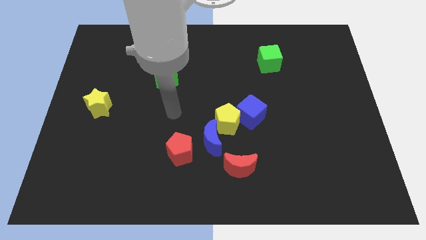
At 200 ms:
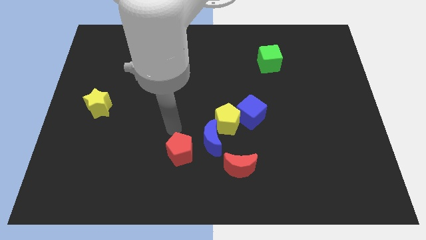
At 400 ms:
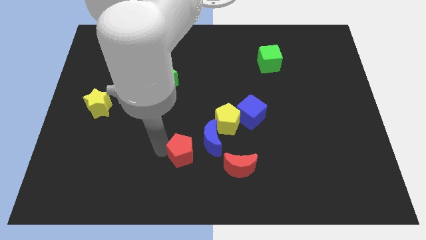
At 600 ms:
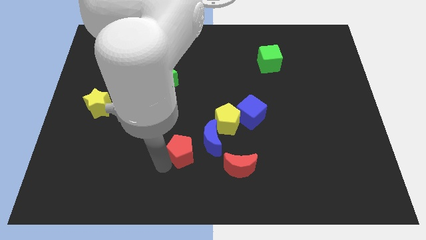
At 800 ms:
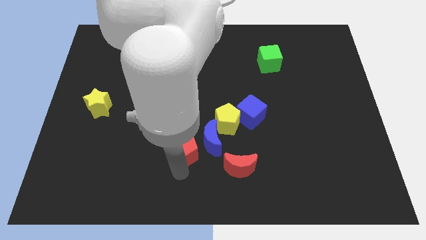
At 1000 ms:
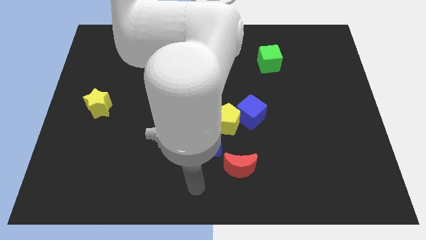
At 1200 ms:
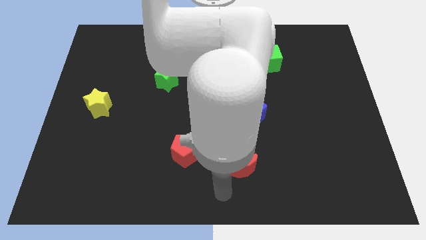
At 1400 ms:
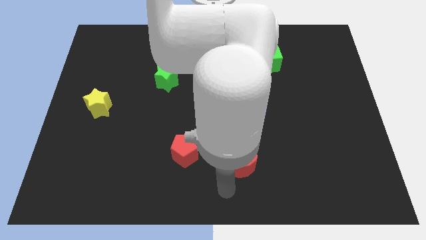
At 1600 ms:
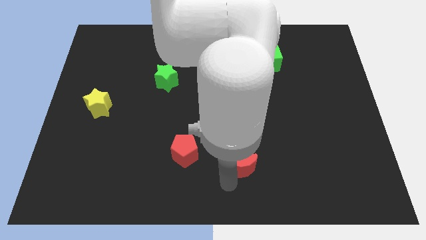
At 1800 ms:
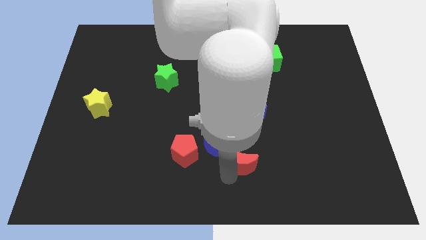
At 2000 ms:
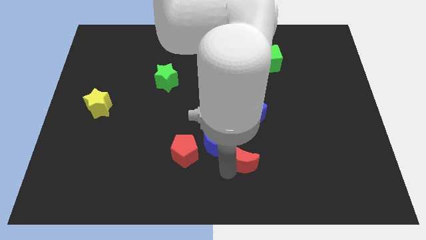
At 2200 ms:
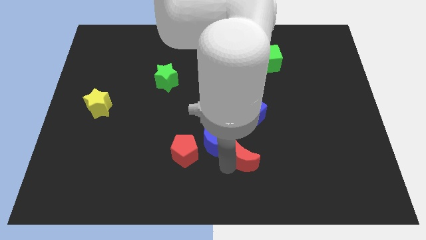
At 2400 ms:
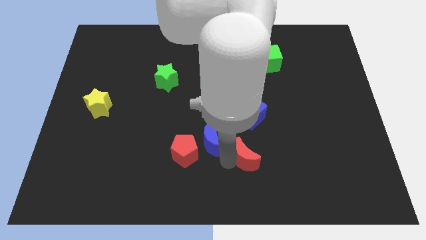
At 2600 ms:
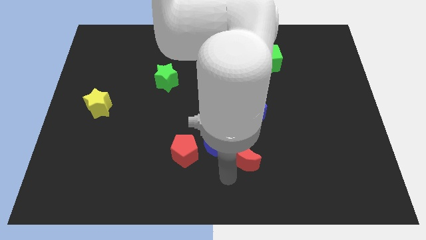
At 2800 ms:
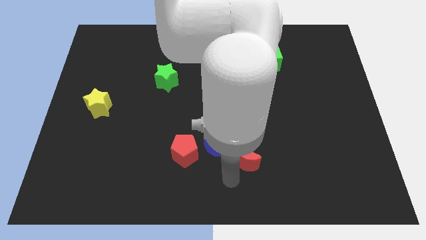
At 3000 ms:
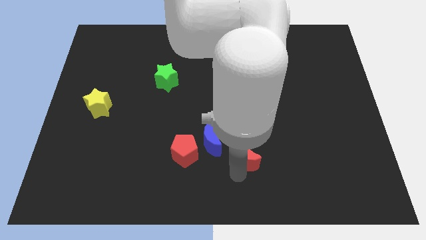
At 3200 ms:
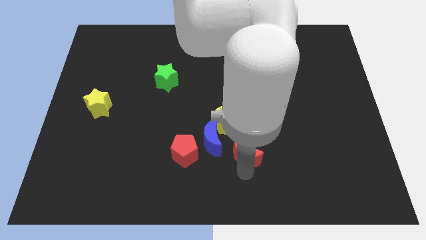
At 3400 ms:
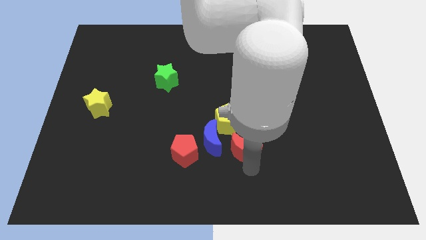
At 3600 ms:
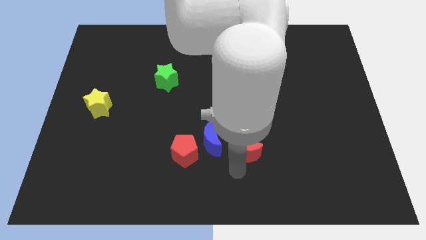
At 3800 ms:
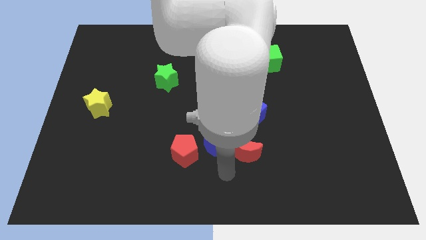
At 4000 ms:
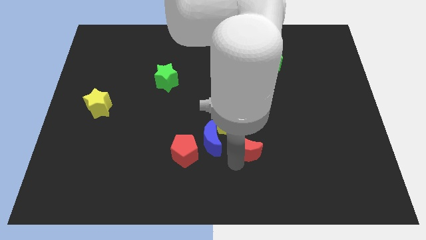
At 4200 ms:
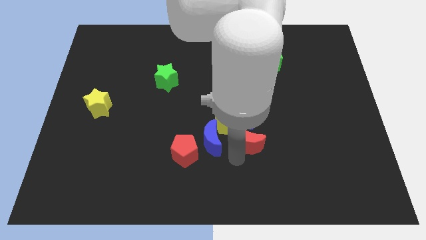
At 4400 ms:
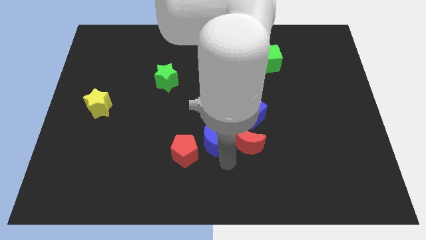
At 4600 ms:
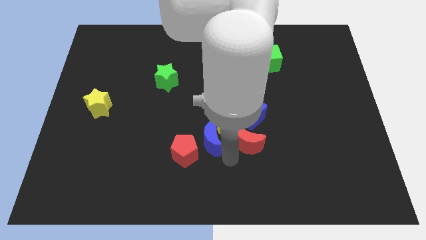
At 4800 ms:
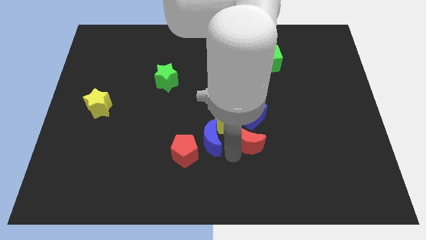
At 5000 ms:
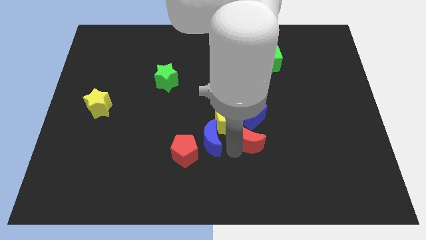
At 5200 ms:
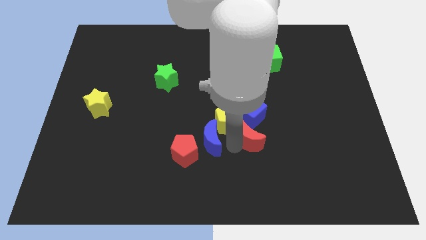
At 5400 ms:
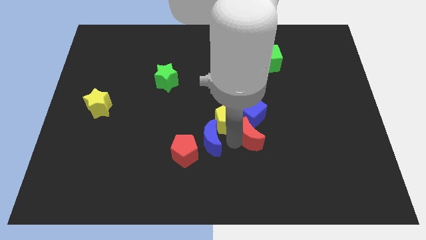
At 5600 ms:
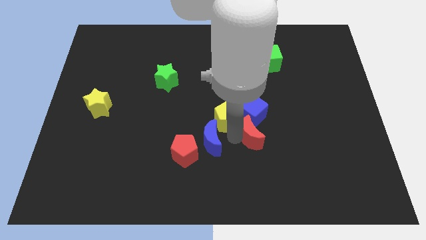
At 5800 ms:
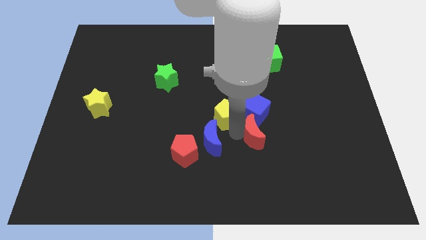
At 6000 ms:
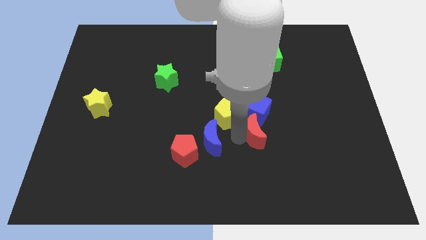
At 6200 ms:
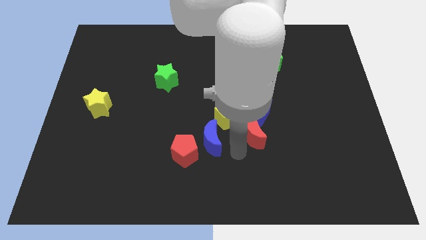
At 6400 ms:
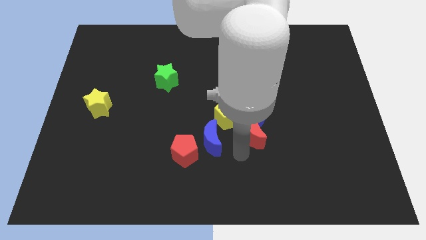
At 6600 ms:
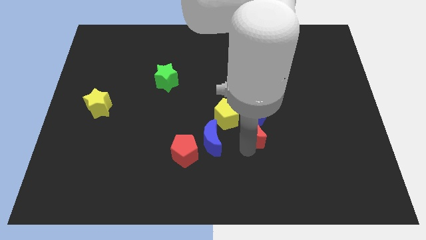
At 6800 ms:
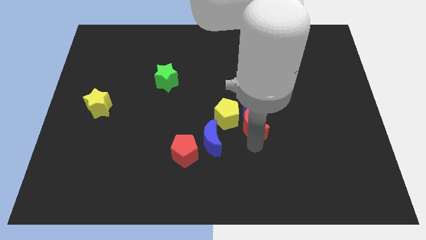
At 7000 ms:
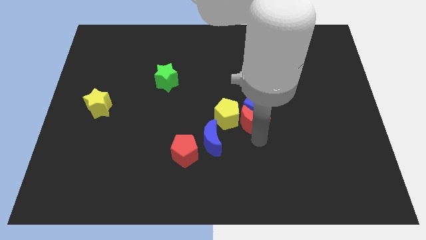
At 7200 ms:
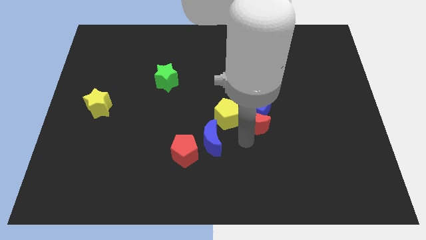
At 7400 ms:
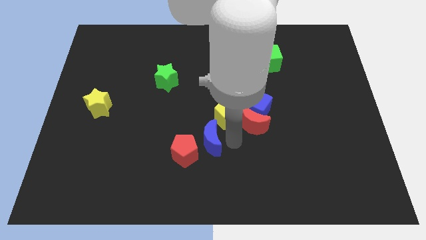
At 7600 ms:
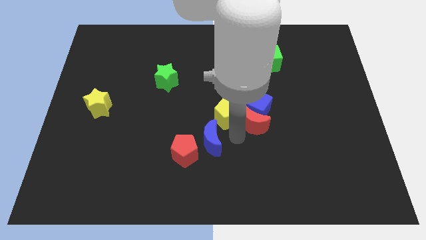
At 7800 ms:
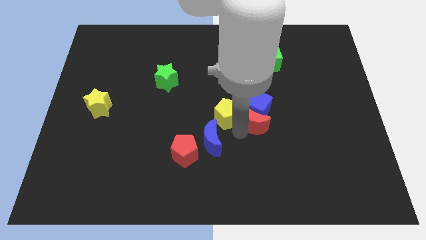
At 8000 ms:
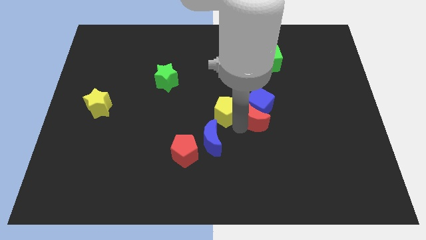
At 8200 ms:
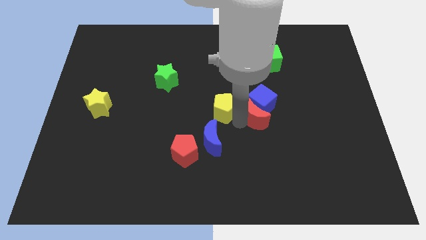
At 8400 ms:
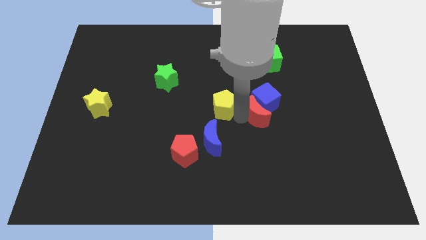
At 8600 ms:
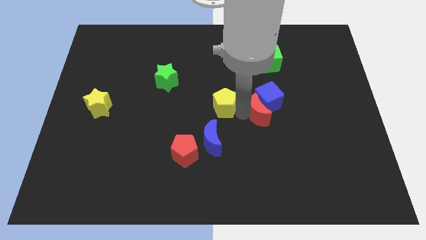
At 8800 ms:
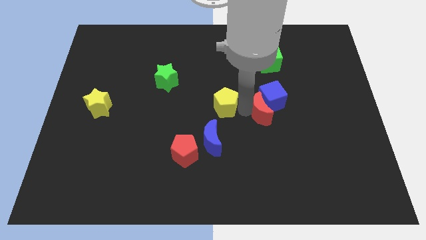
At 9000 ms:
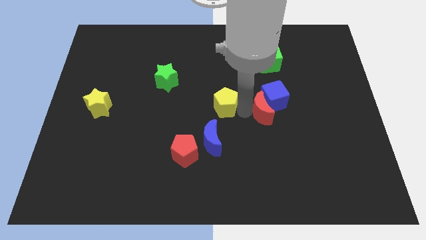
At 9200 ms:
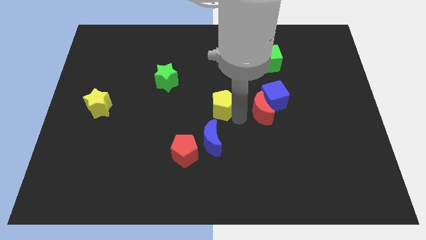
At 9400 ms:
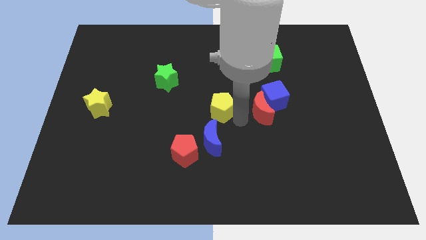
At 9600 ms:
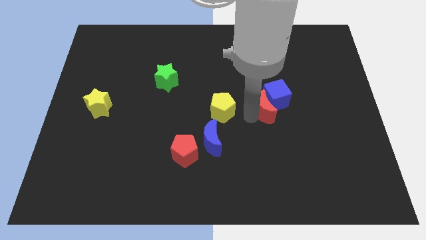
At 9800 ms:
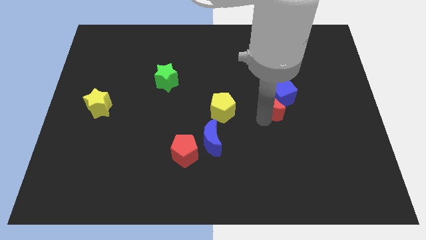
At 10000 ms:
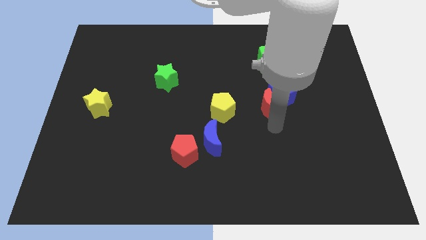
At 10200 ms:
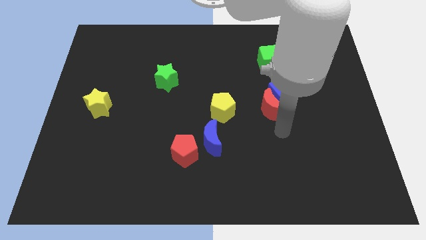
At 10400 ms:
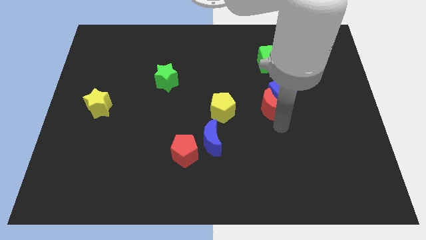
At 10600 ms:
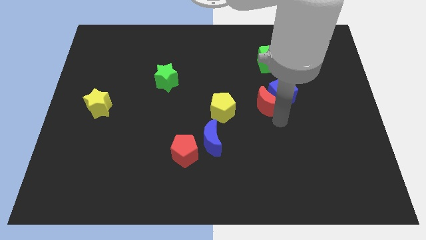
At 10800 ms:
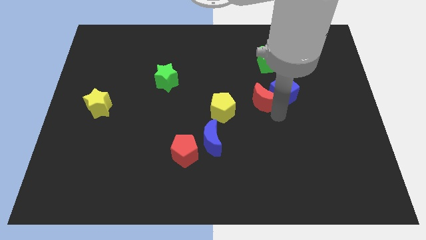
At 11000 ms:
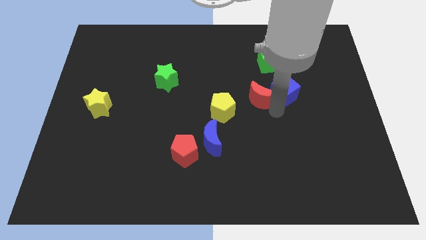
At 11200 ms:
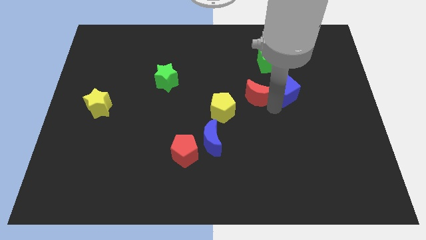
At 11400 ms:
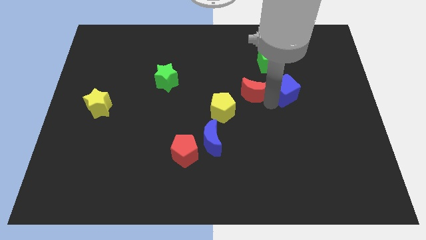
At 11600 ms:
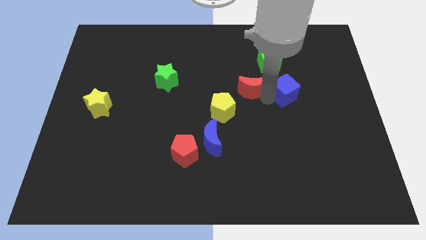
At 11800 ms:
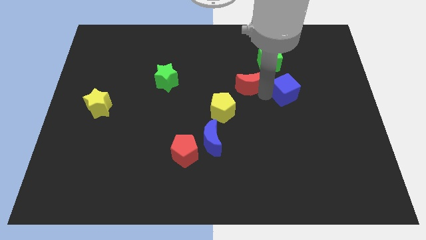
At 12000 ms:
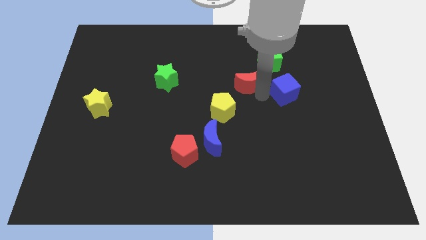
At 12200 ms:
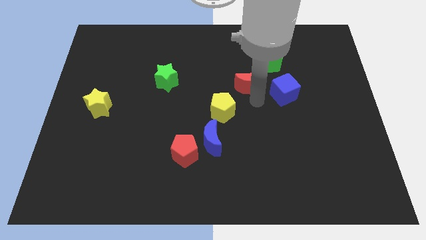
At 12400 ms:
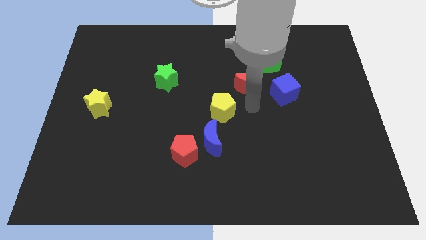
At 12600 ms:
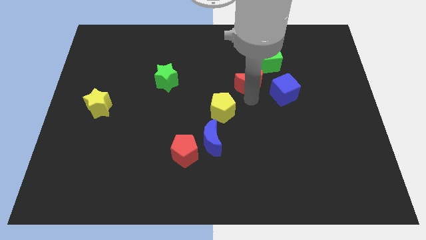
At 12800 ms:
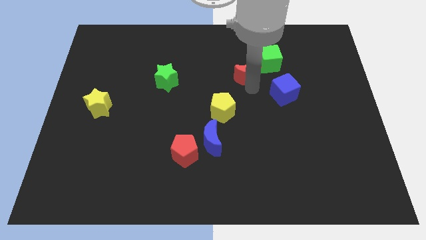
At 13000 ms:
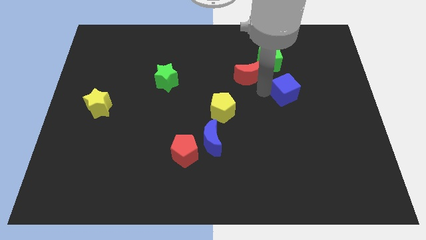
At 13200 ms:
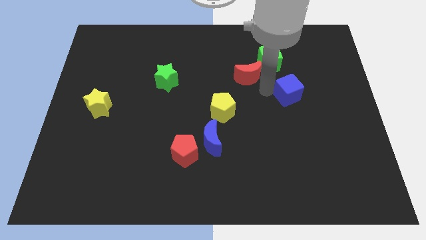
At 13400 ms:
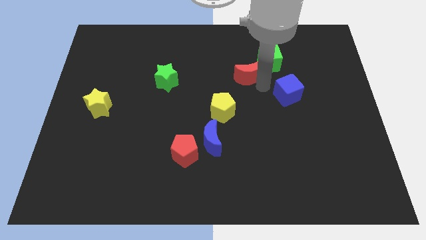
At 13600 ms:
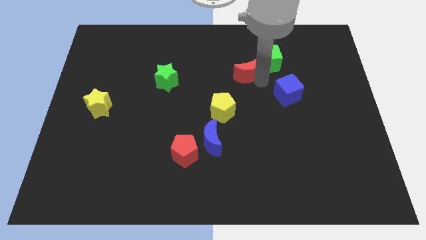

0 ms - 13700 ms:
push the red moon left of the green cube
